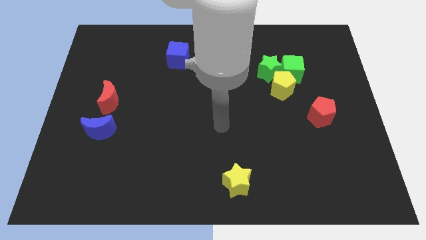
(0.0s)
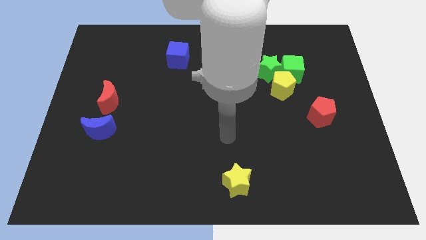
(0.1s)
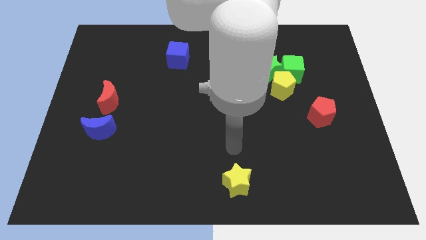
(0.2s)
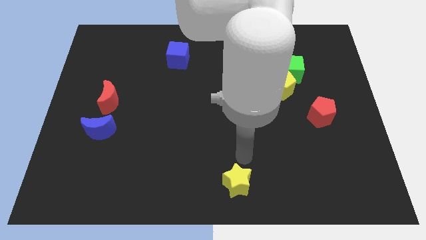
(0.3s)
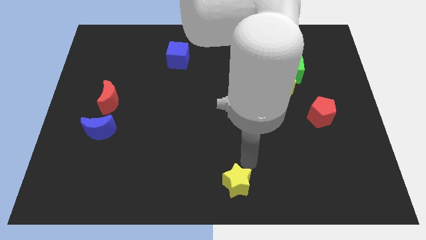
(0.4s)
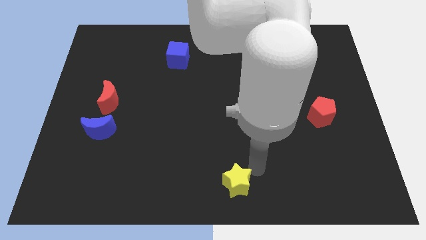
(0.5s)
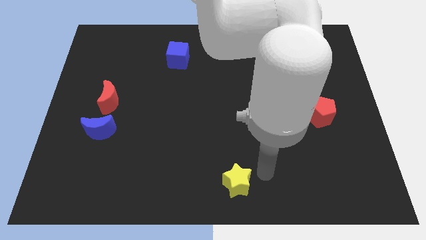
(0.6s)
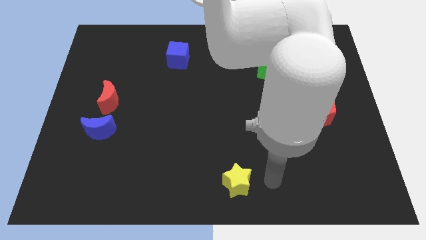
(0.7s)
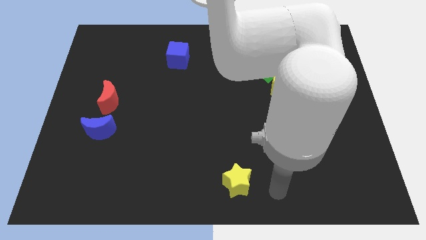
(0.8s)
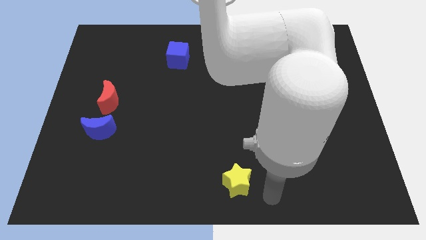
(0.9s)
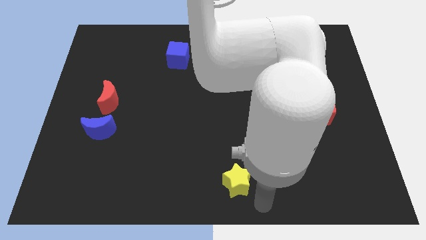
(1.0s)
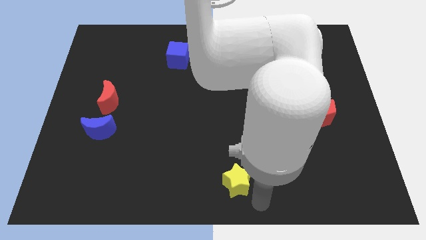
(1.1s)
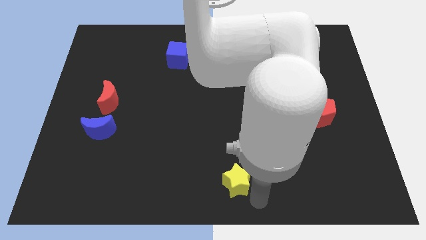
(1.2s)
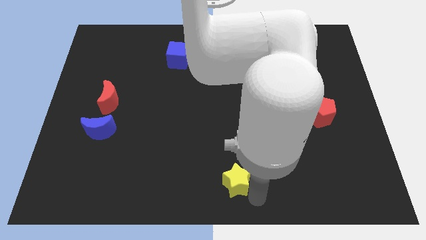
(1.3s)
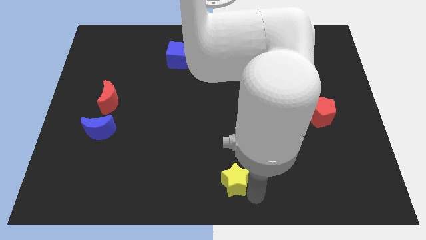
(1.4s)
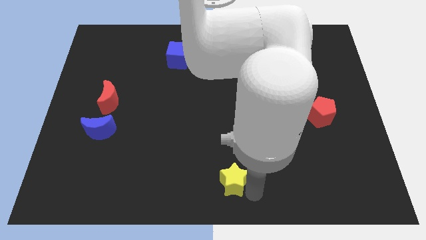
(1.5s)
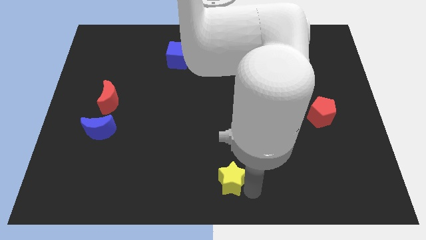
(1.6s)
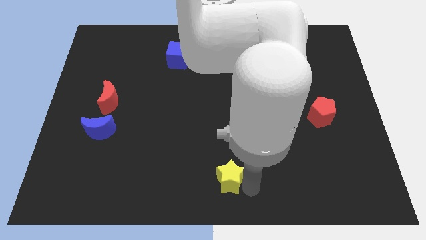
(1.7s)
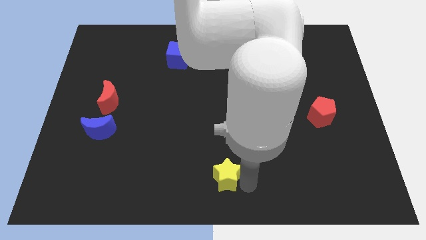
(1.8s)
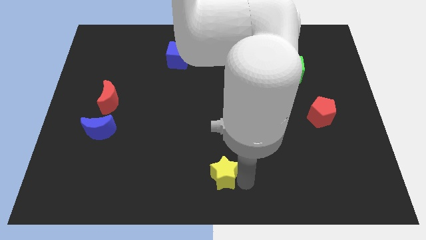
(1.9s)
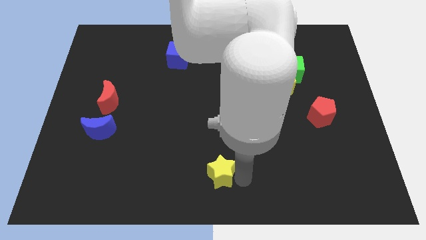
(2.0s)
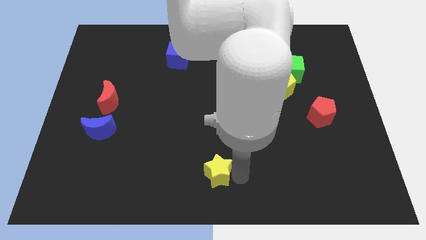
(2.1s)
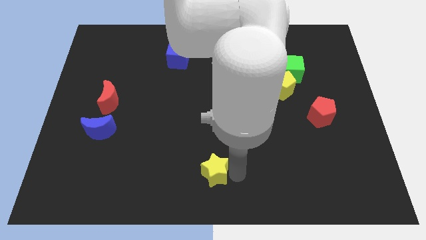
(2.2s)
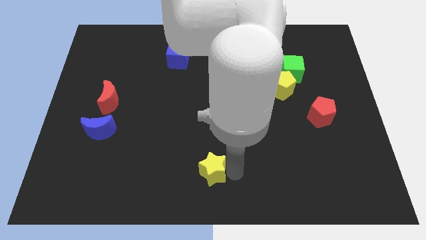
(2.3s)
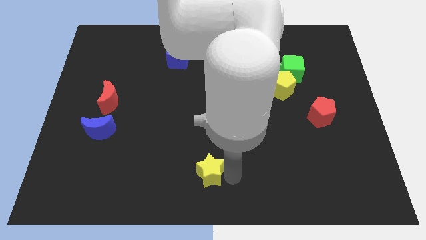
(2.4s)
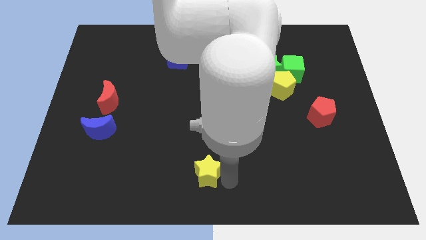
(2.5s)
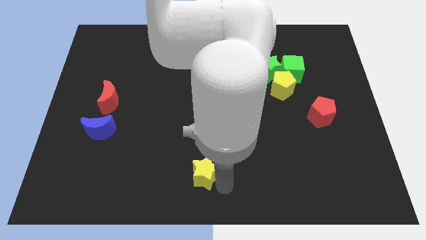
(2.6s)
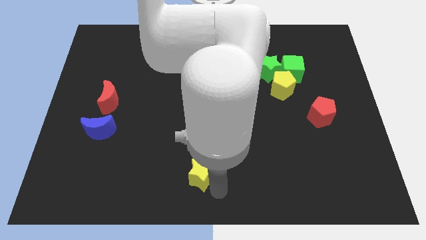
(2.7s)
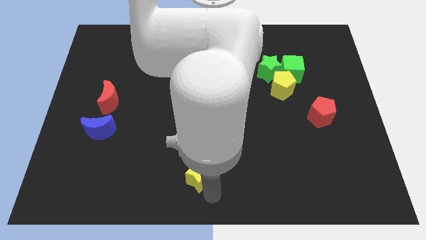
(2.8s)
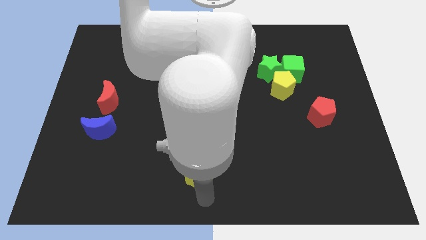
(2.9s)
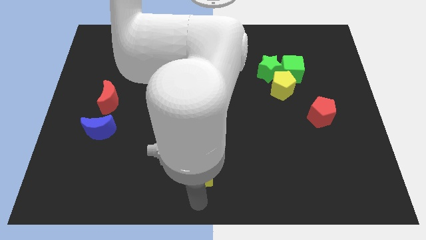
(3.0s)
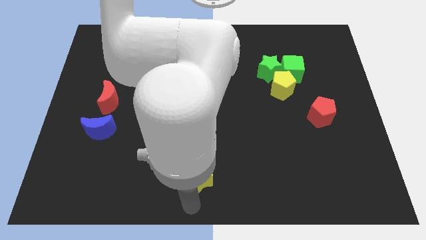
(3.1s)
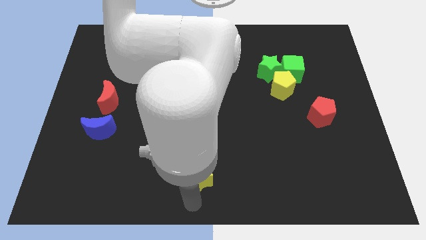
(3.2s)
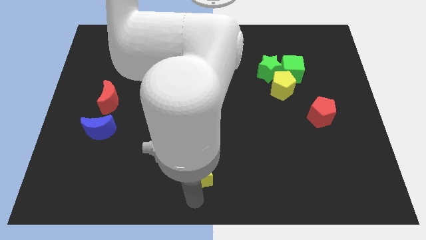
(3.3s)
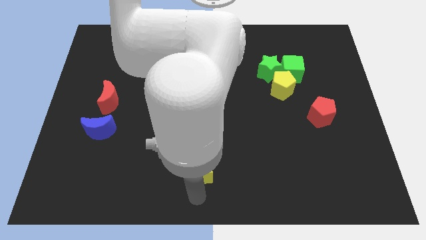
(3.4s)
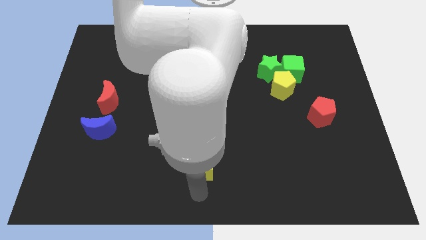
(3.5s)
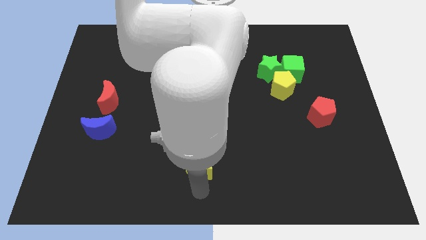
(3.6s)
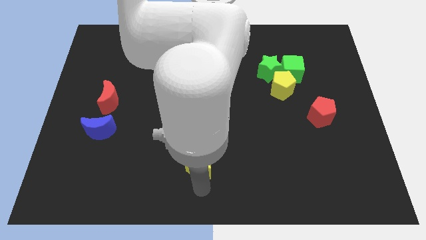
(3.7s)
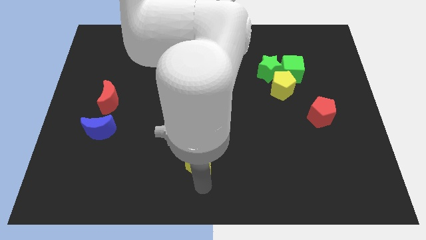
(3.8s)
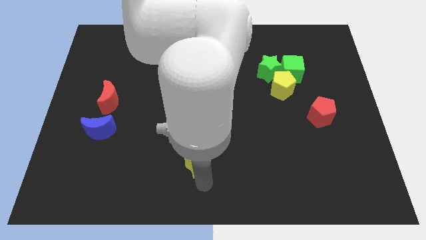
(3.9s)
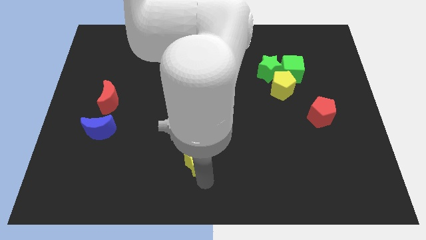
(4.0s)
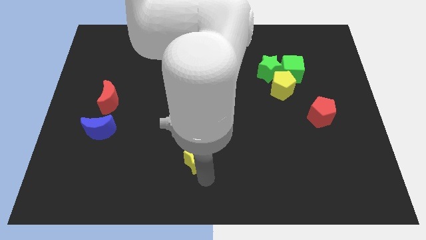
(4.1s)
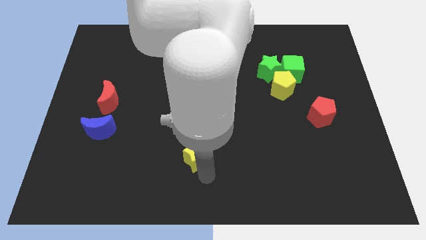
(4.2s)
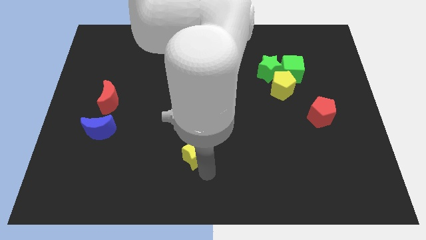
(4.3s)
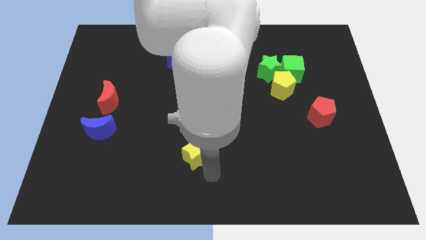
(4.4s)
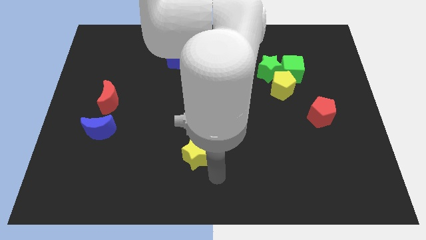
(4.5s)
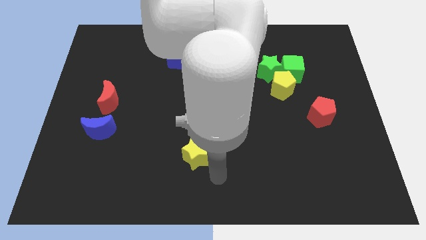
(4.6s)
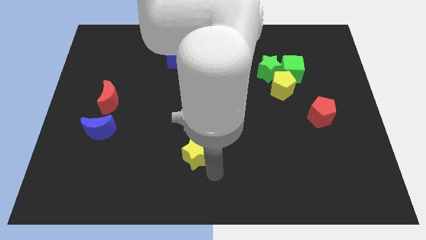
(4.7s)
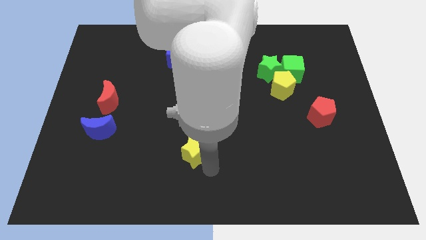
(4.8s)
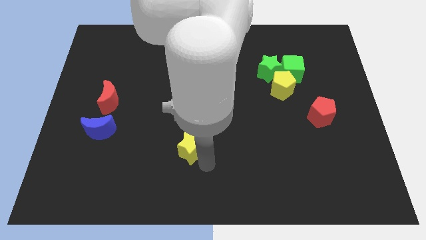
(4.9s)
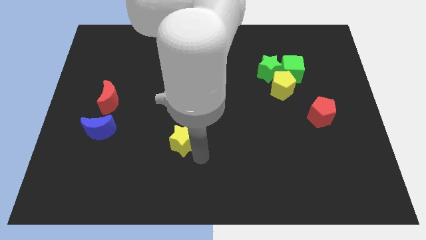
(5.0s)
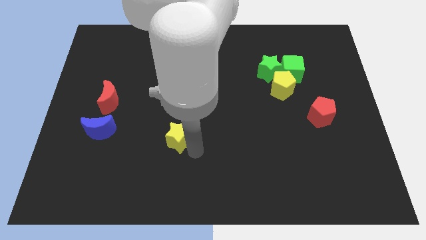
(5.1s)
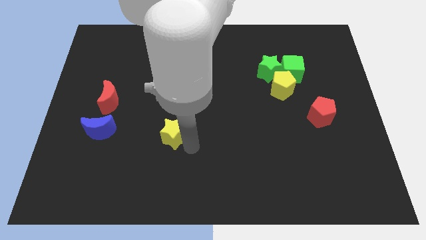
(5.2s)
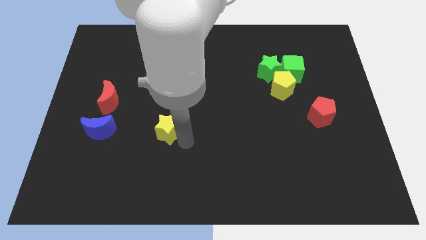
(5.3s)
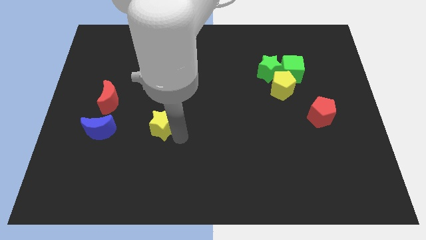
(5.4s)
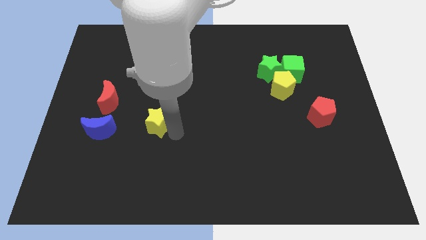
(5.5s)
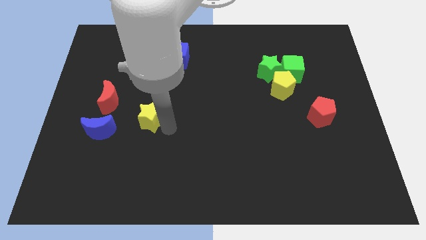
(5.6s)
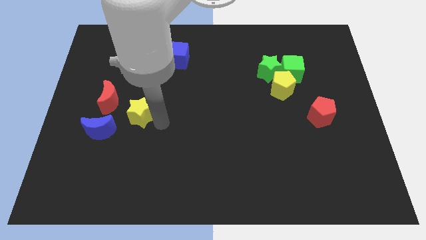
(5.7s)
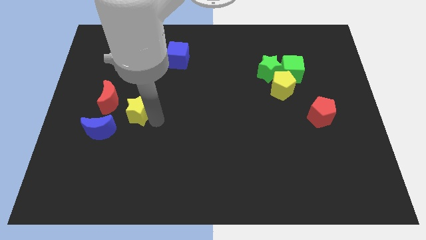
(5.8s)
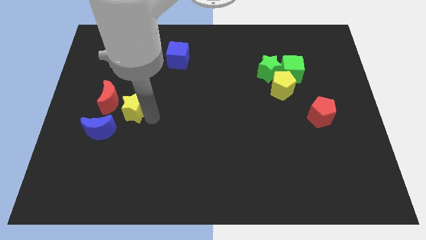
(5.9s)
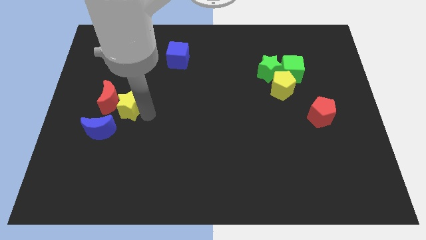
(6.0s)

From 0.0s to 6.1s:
put the yellow star to the red moon
